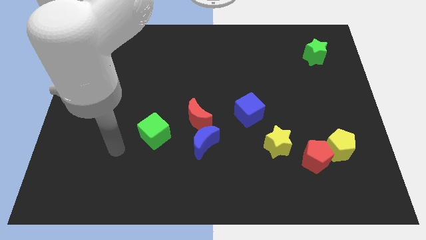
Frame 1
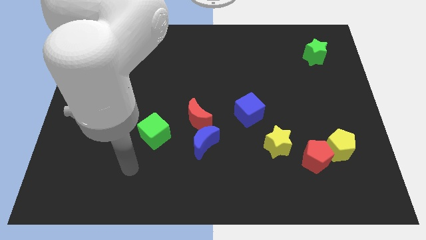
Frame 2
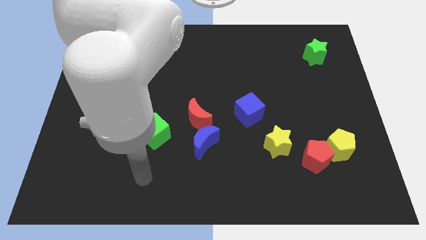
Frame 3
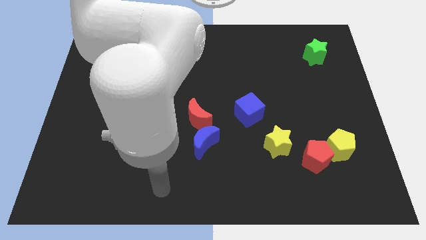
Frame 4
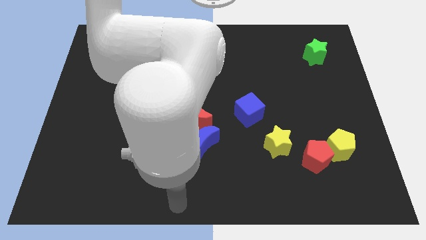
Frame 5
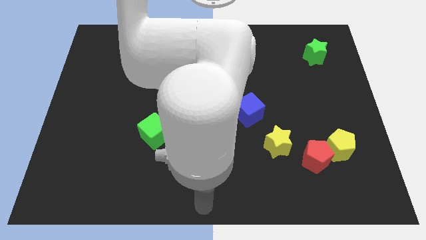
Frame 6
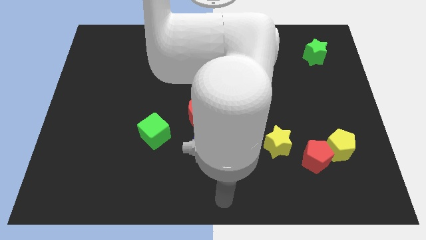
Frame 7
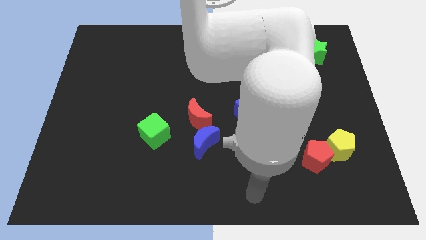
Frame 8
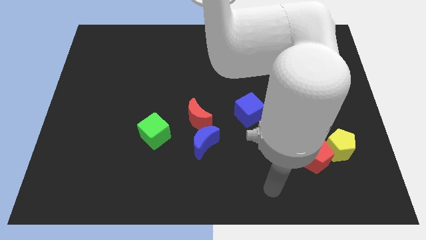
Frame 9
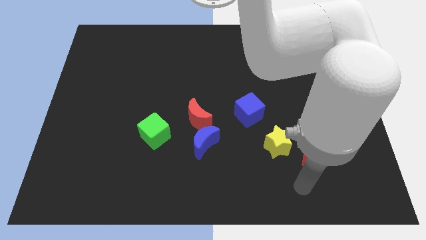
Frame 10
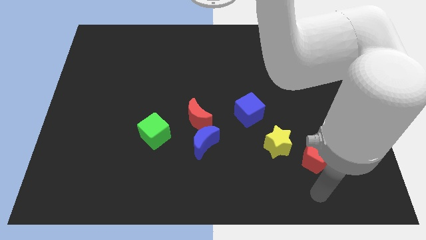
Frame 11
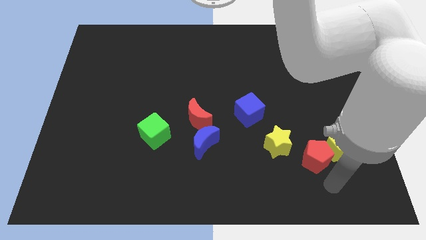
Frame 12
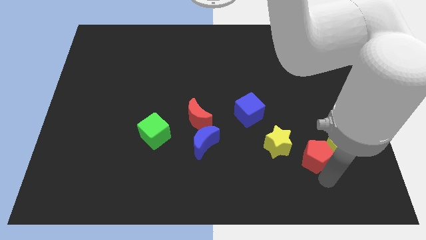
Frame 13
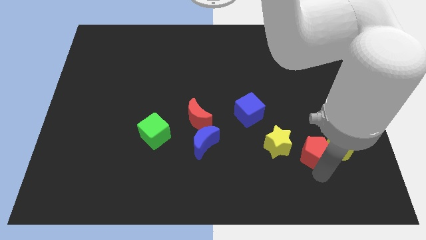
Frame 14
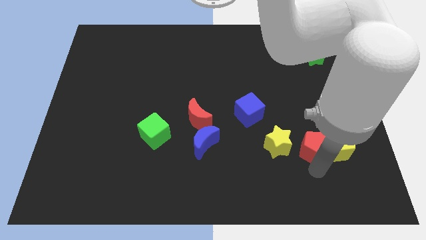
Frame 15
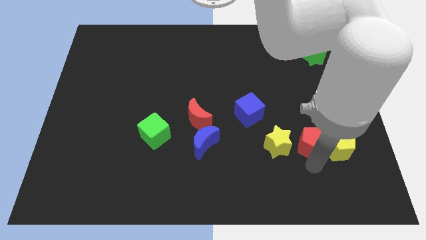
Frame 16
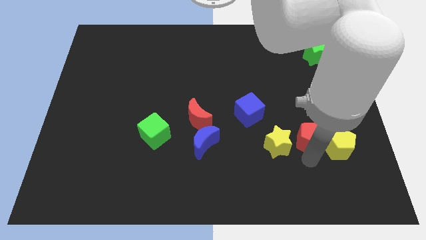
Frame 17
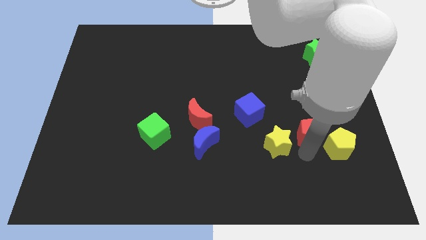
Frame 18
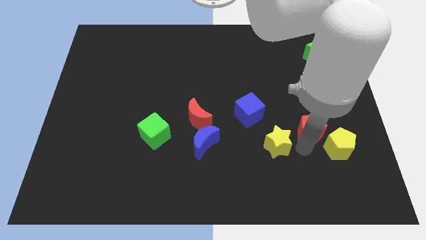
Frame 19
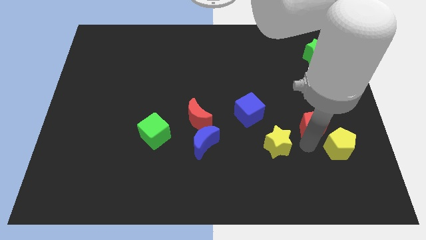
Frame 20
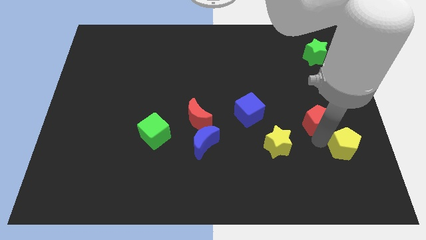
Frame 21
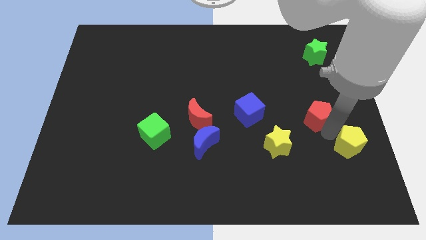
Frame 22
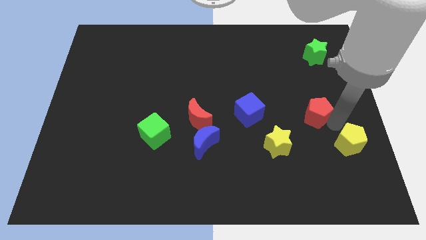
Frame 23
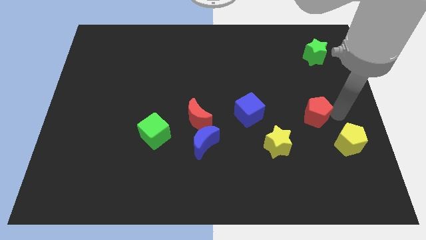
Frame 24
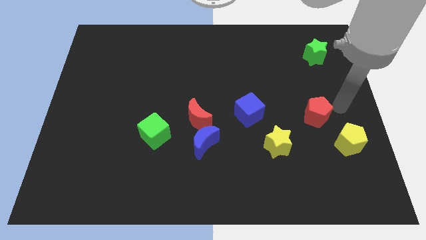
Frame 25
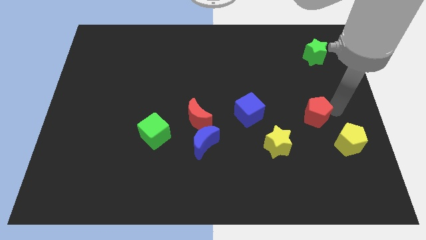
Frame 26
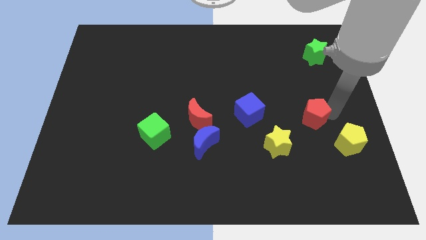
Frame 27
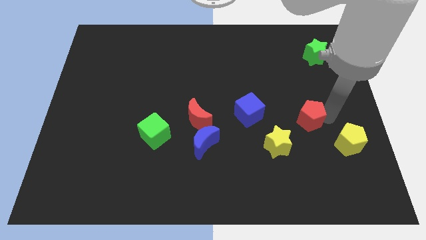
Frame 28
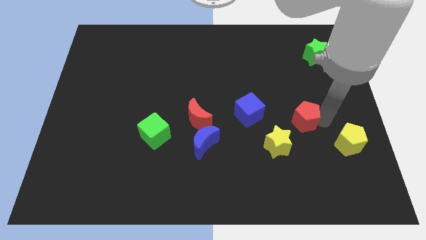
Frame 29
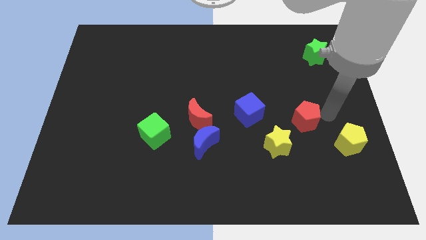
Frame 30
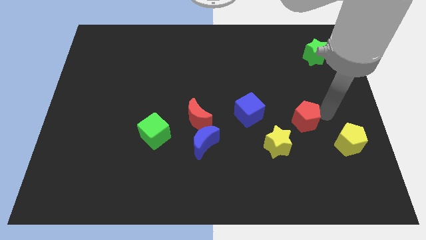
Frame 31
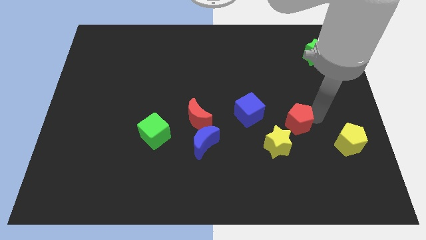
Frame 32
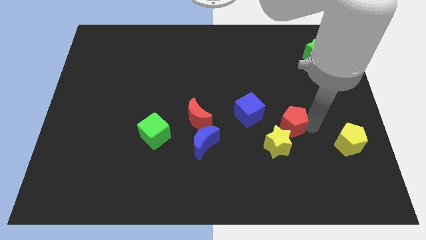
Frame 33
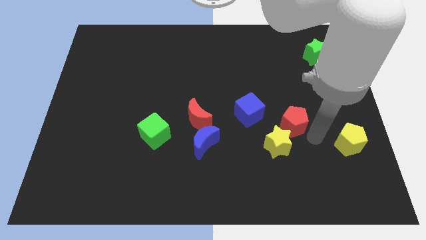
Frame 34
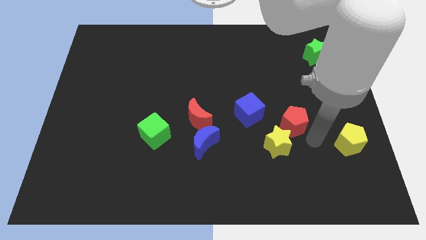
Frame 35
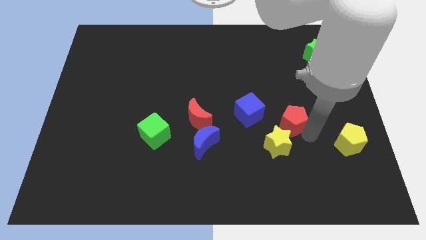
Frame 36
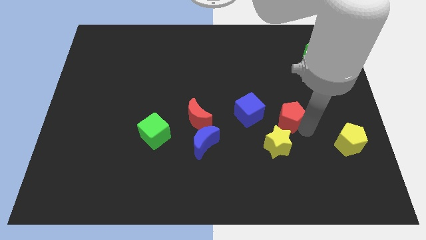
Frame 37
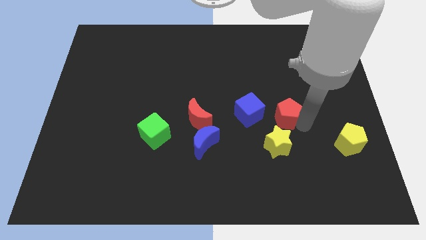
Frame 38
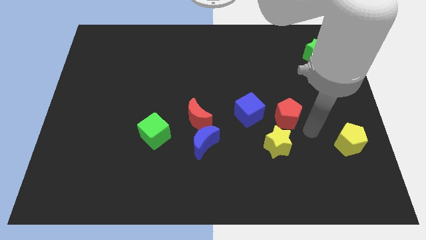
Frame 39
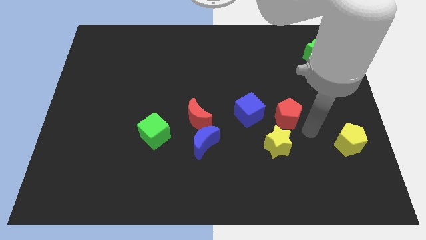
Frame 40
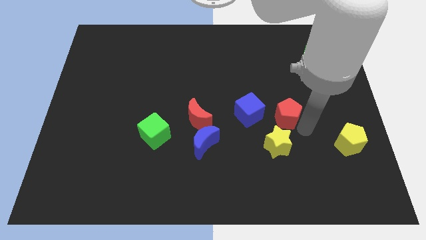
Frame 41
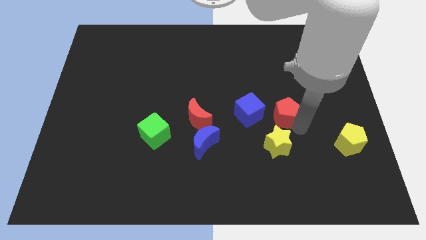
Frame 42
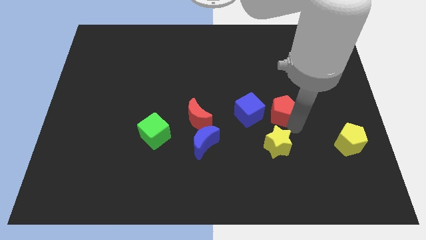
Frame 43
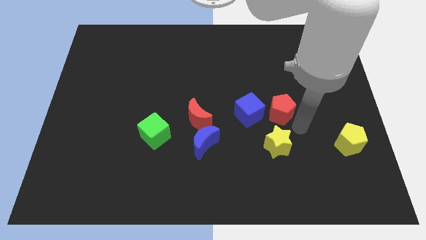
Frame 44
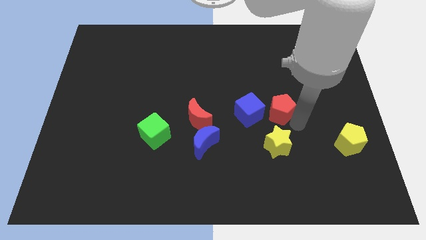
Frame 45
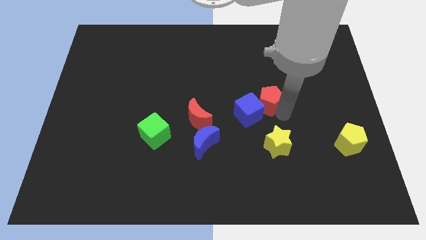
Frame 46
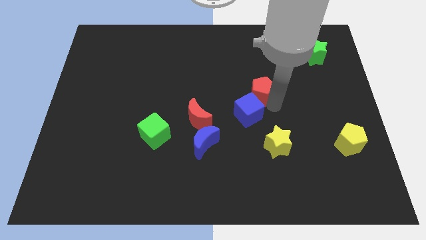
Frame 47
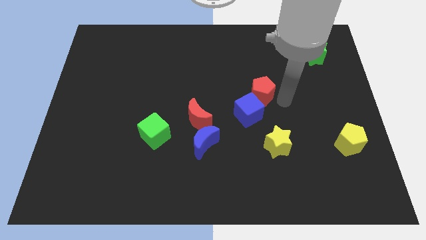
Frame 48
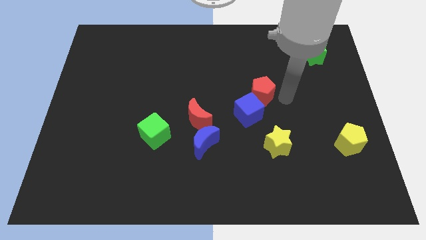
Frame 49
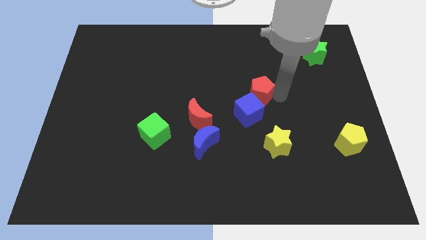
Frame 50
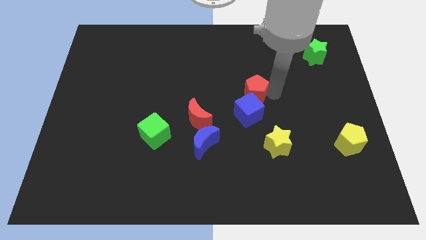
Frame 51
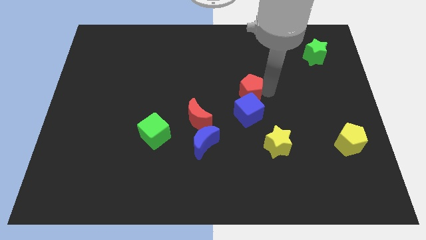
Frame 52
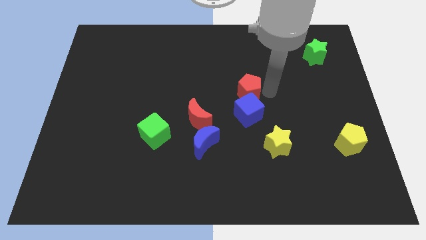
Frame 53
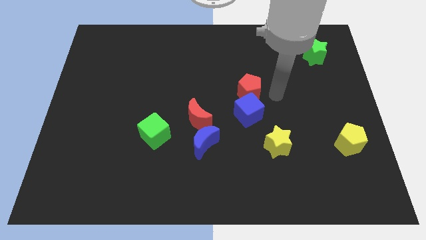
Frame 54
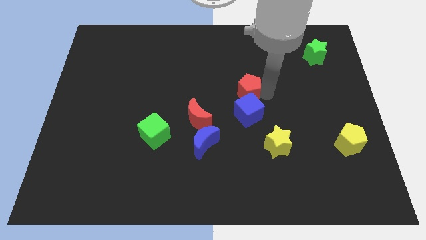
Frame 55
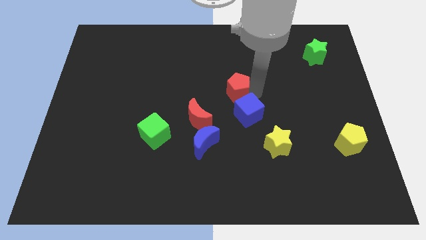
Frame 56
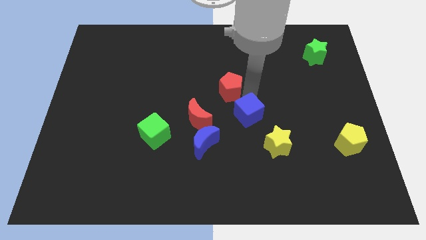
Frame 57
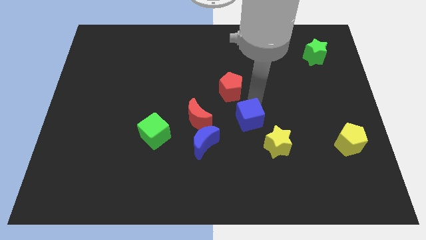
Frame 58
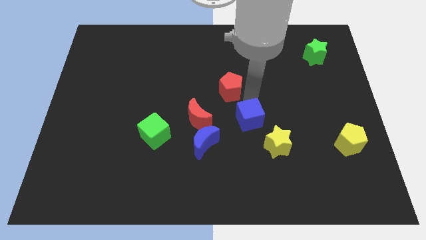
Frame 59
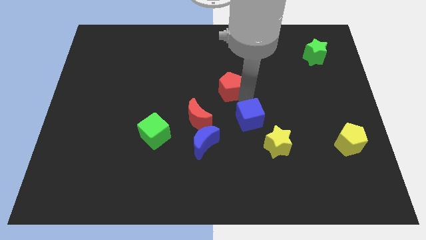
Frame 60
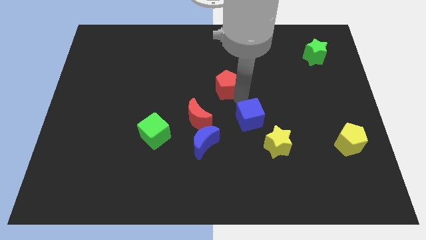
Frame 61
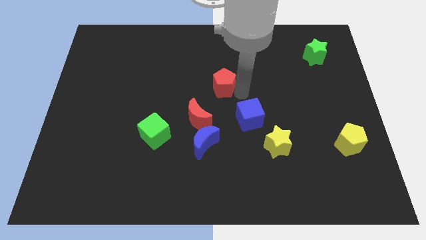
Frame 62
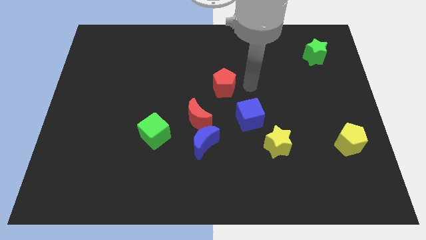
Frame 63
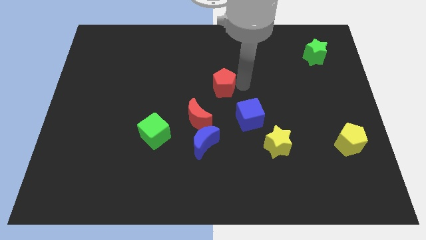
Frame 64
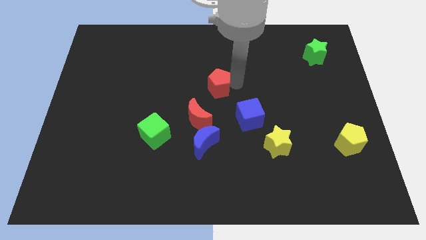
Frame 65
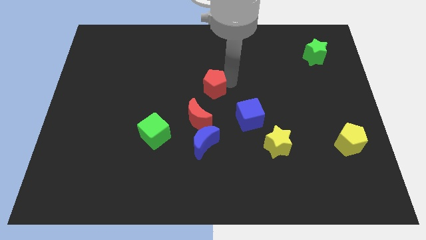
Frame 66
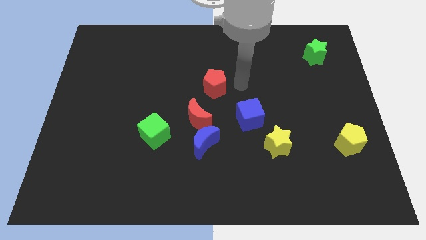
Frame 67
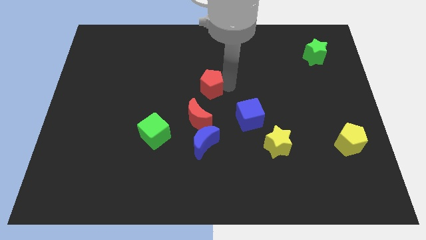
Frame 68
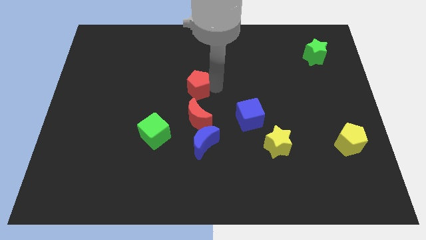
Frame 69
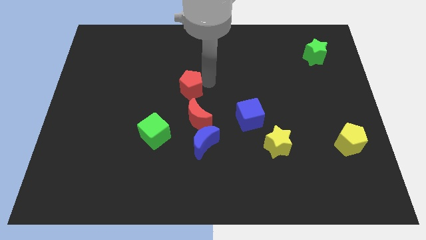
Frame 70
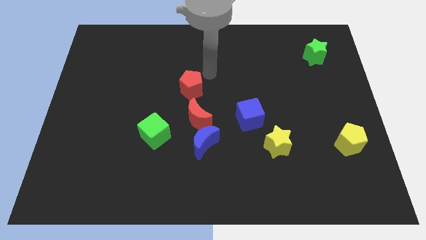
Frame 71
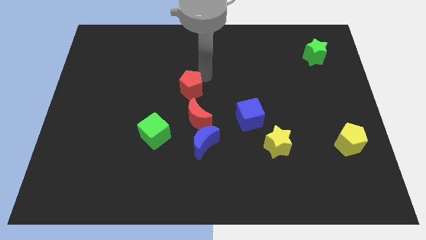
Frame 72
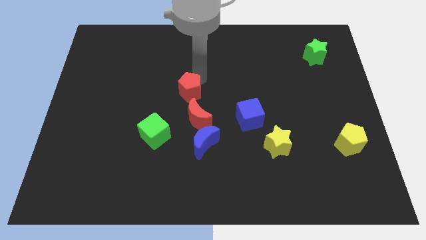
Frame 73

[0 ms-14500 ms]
put the red pentagon diagonally up and to the left of the red moon

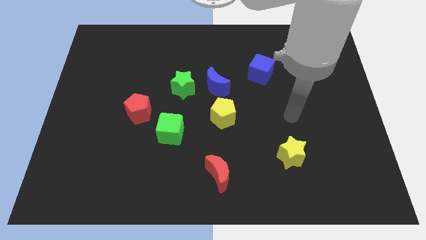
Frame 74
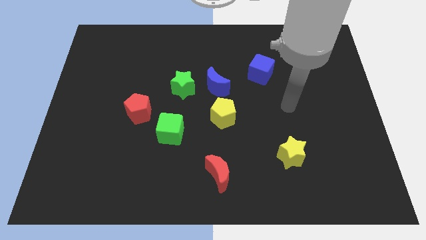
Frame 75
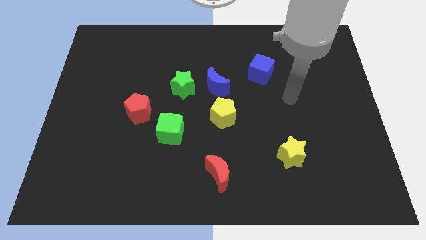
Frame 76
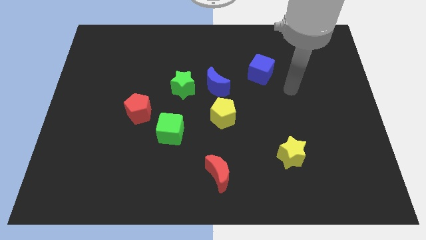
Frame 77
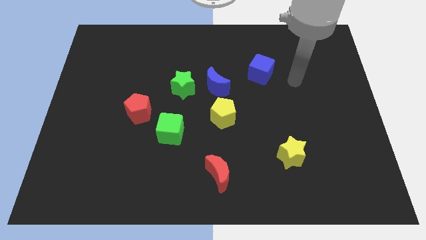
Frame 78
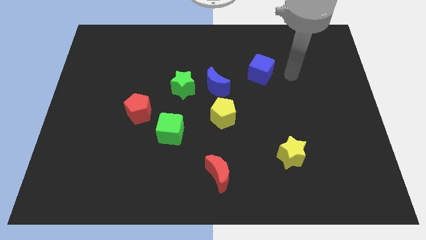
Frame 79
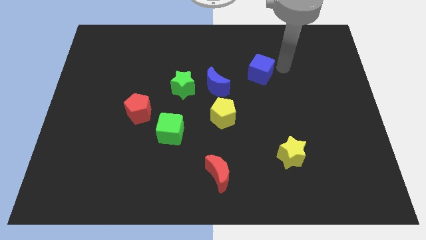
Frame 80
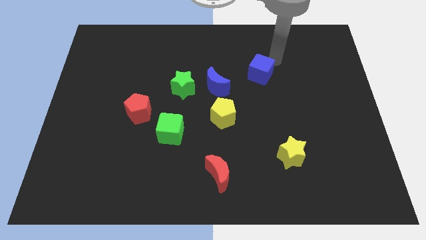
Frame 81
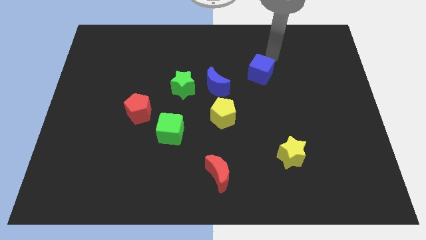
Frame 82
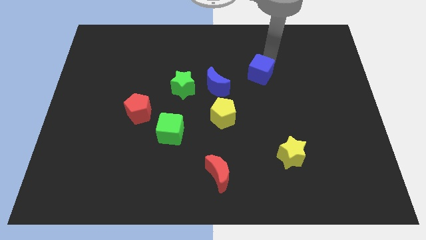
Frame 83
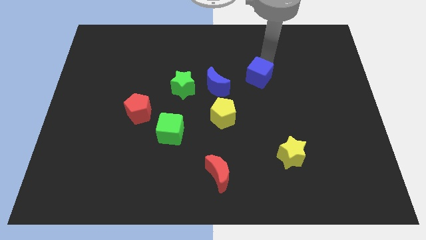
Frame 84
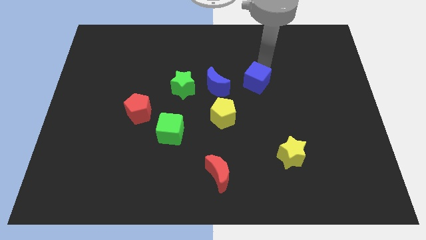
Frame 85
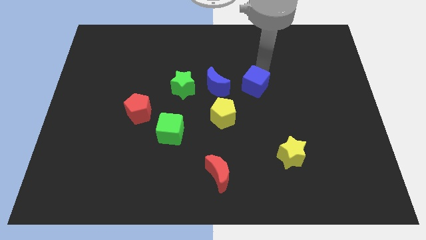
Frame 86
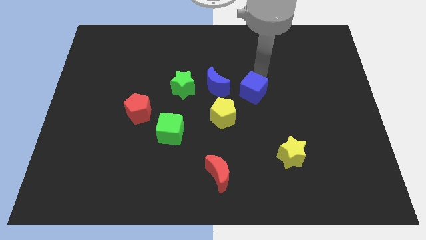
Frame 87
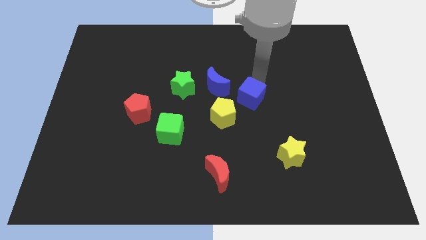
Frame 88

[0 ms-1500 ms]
push the blue cube to the bottom right side of the blue moon
